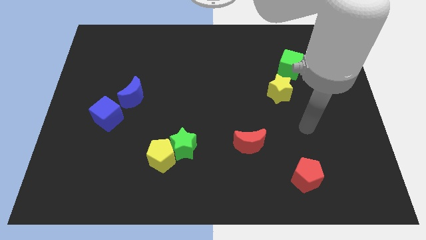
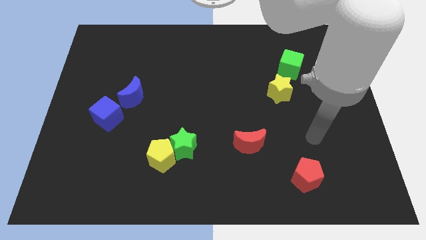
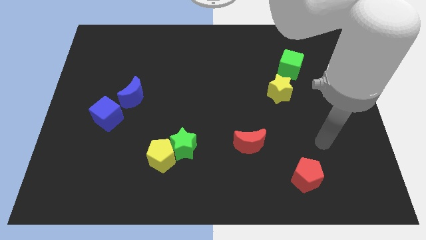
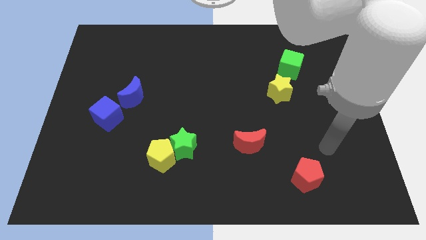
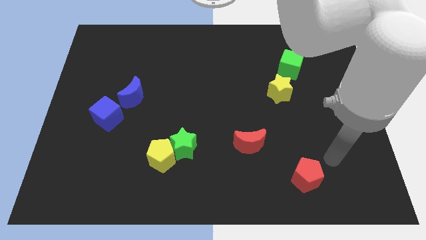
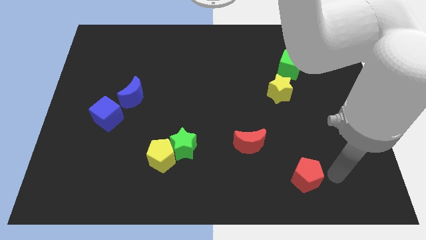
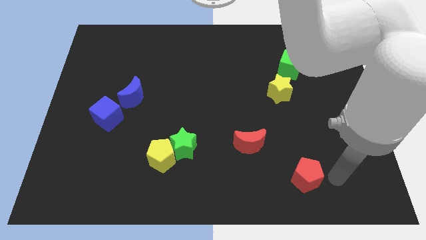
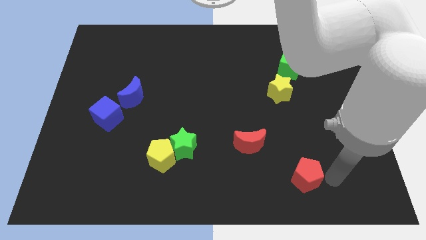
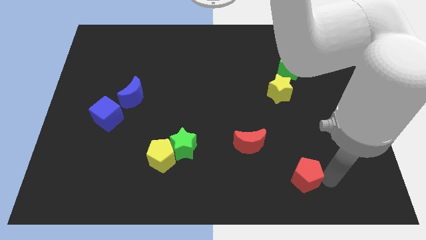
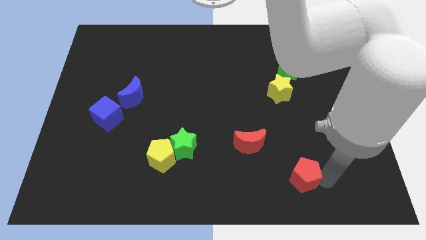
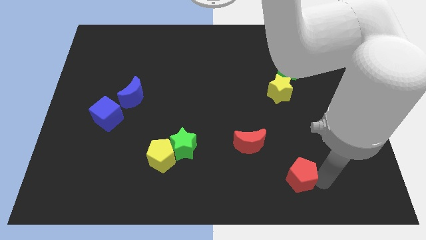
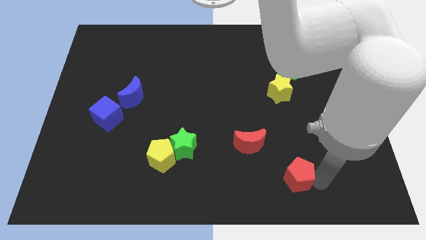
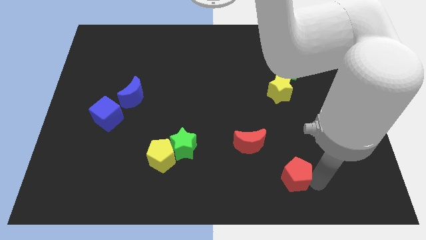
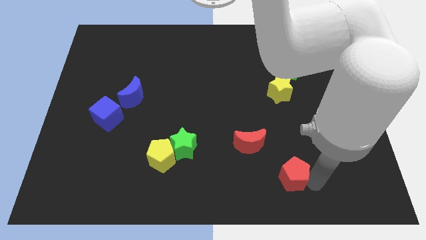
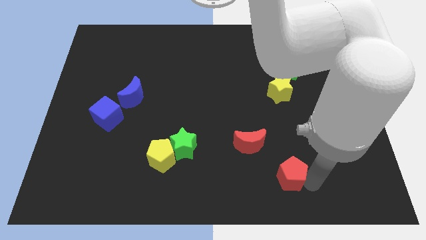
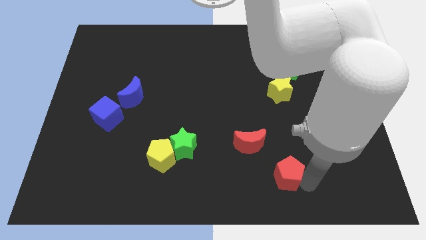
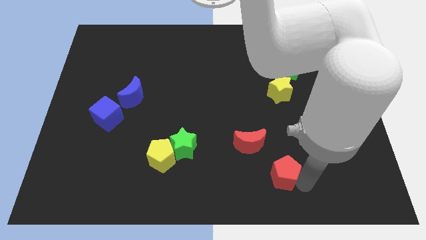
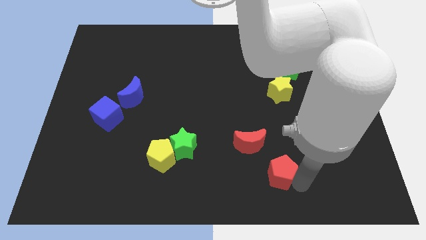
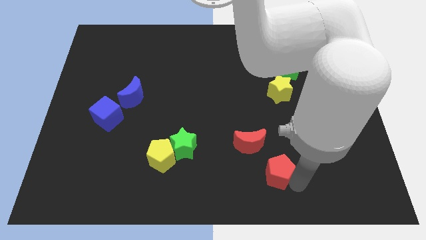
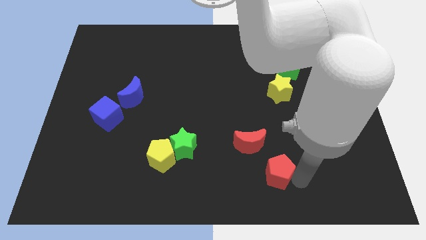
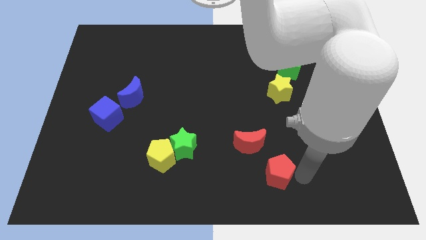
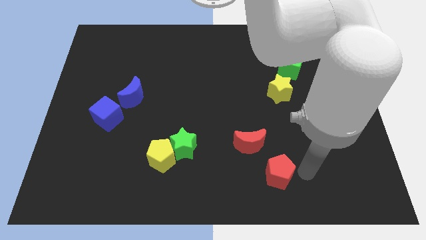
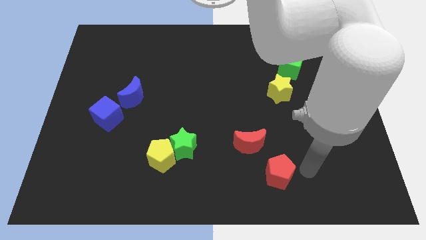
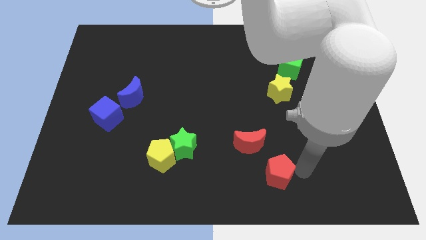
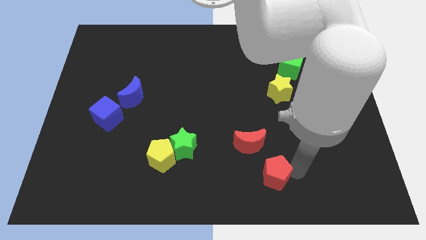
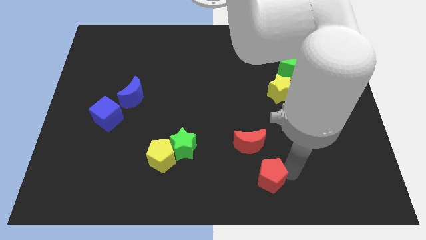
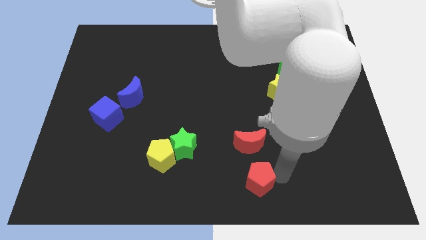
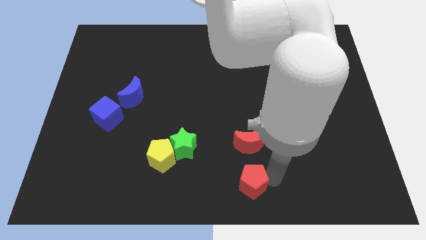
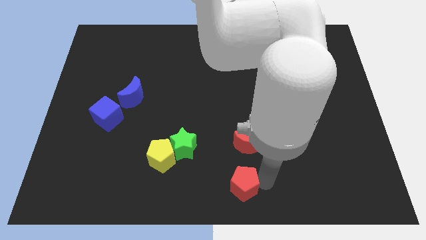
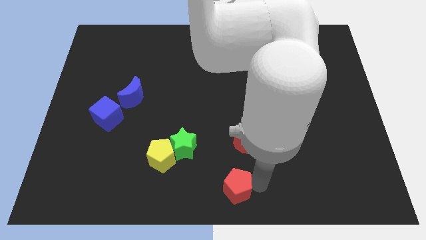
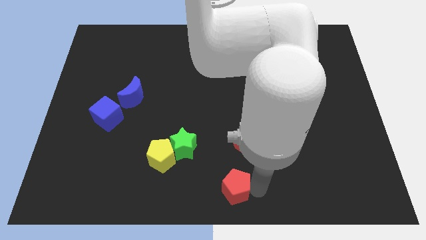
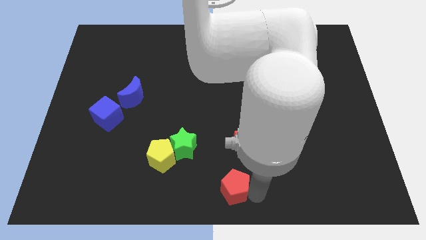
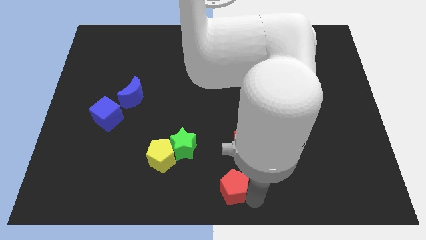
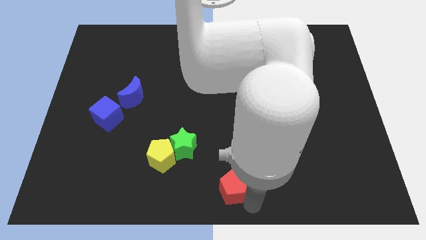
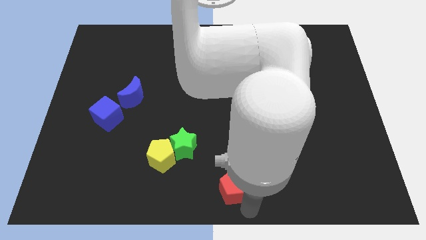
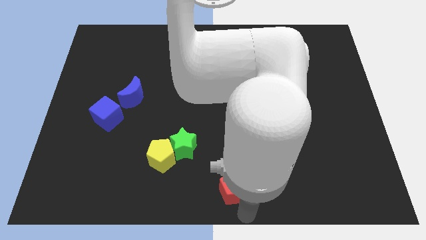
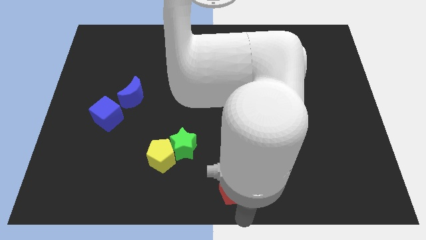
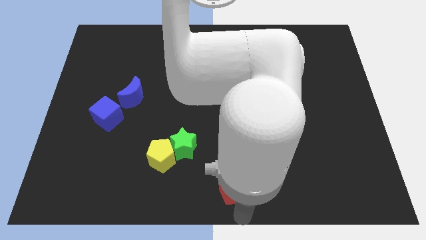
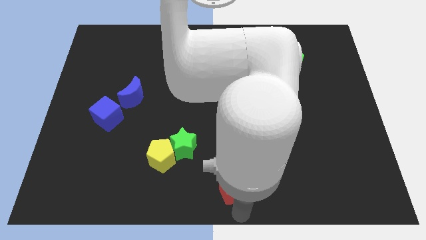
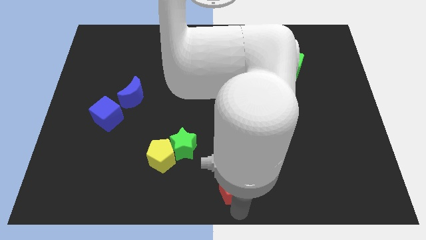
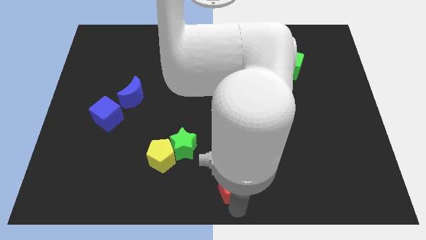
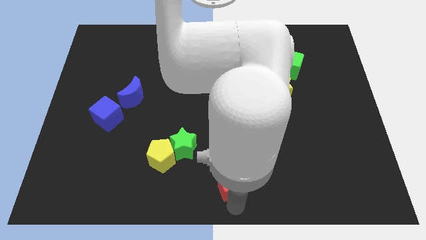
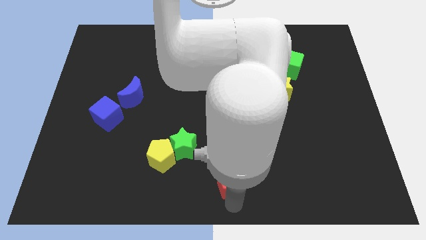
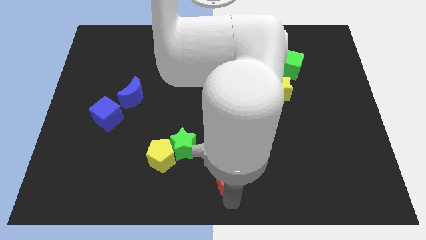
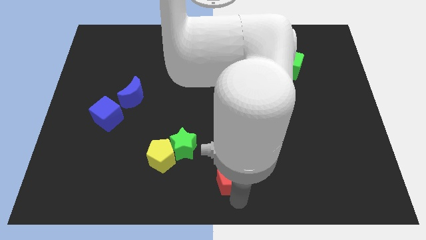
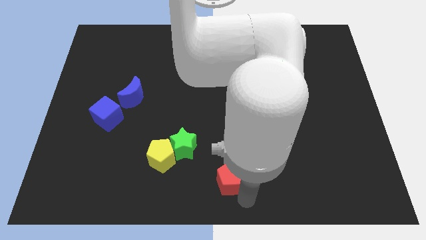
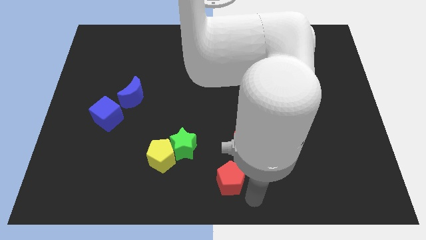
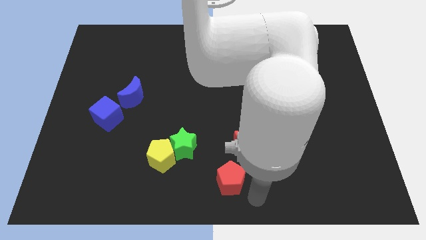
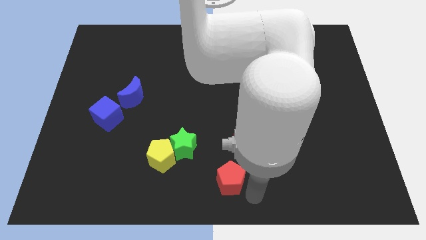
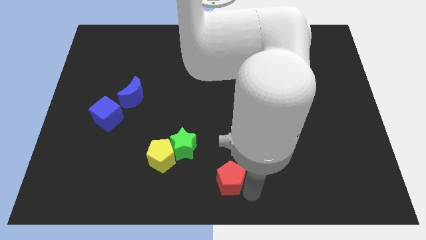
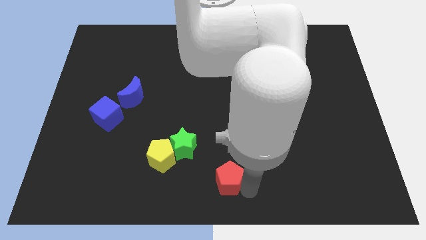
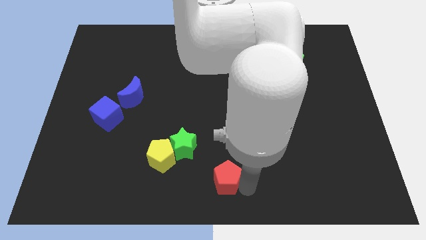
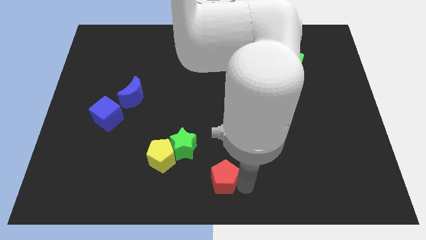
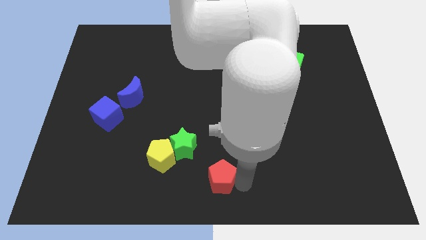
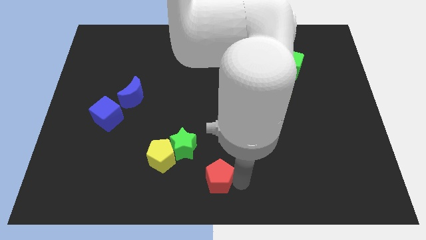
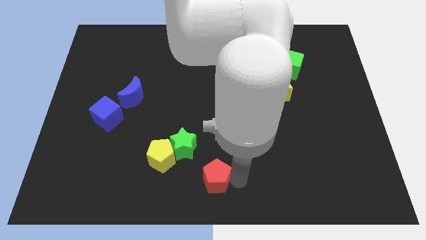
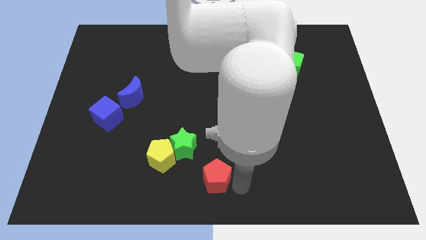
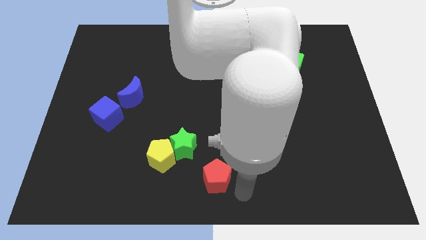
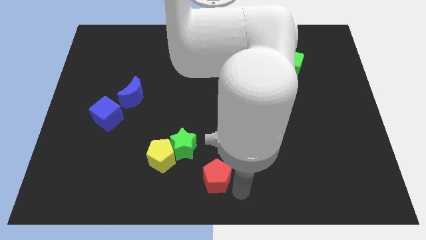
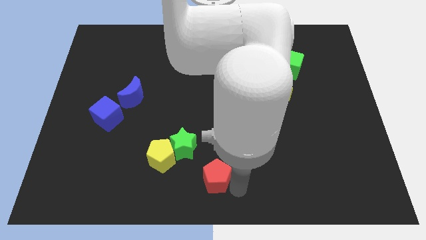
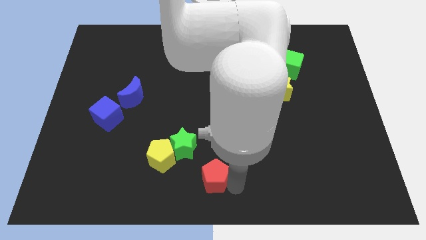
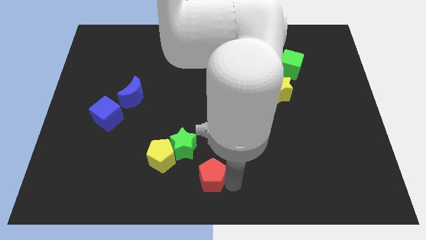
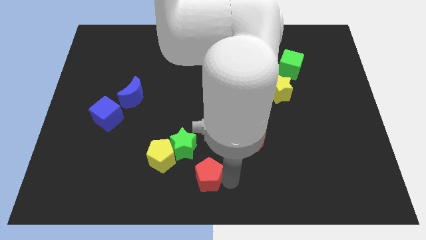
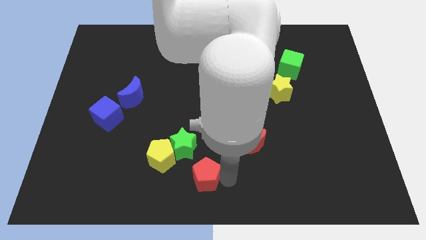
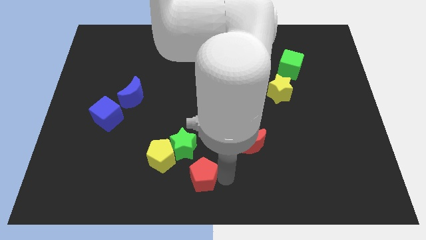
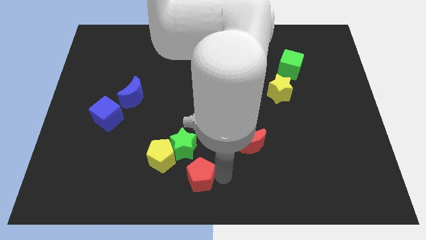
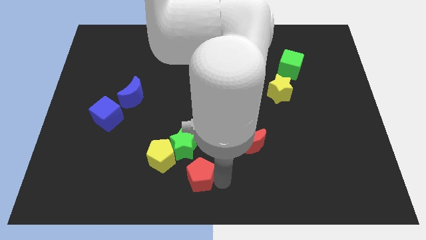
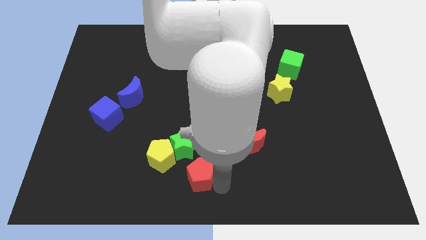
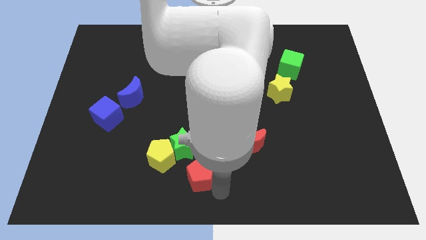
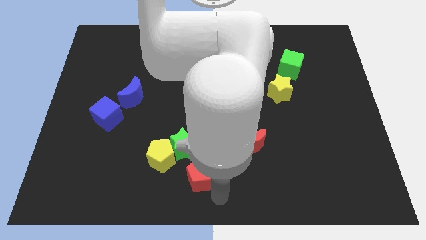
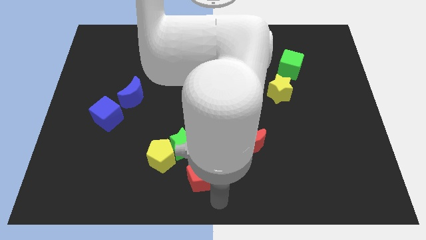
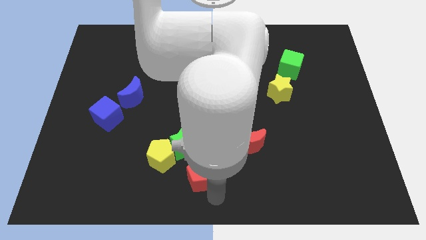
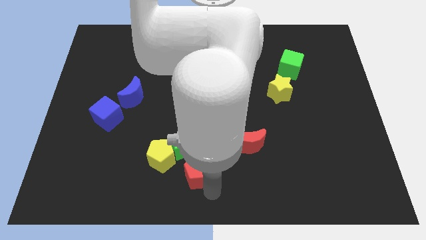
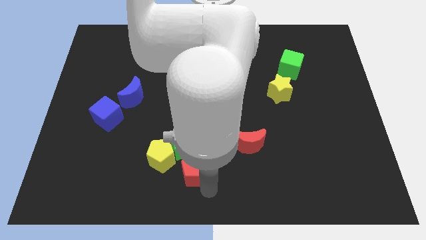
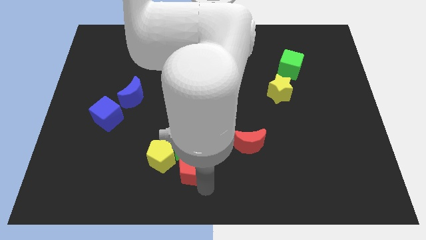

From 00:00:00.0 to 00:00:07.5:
put the red pentagon next to the green star
